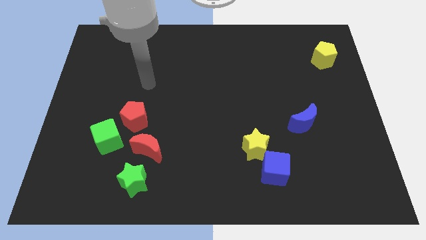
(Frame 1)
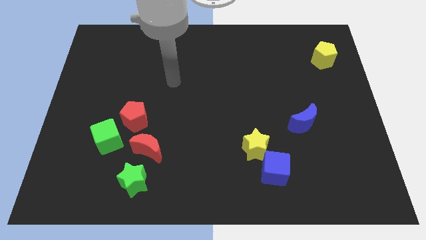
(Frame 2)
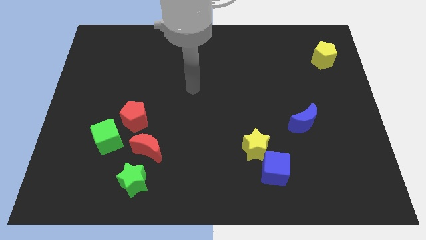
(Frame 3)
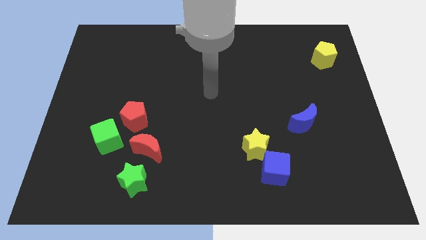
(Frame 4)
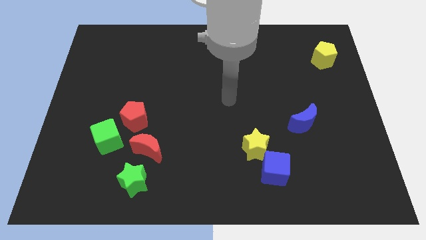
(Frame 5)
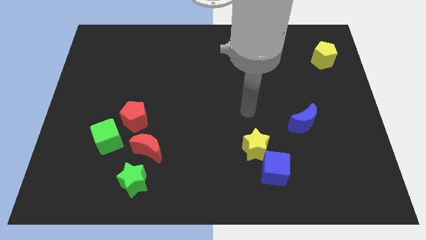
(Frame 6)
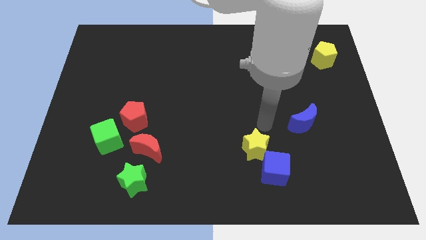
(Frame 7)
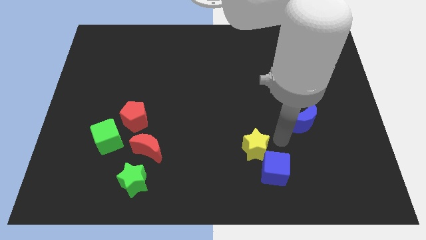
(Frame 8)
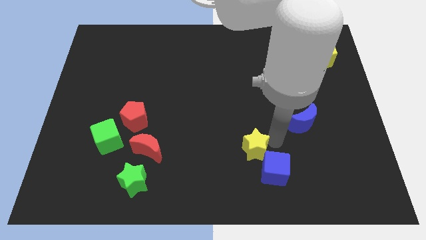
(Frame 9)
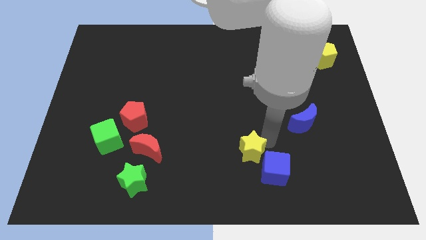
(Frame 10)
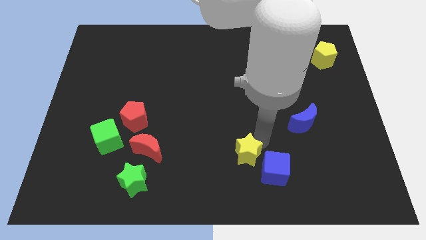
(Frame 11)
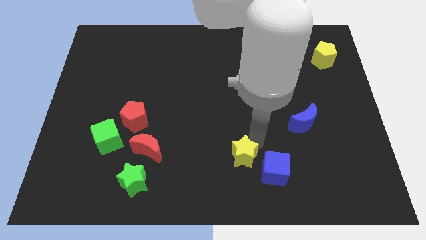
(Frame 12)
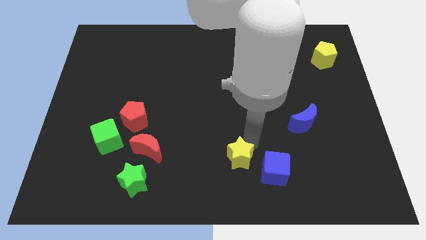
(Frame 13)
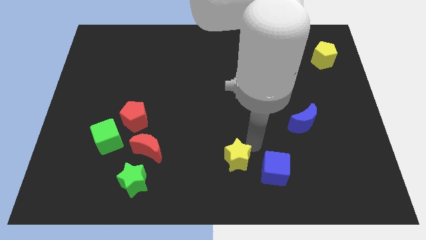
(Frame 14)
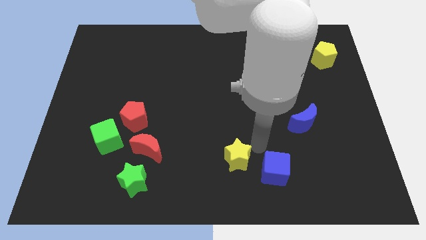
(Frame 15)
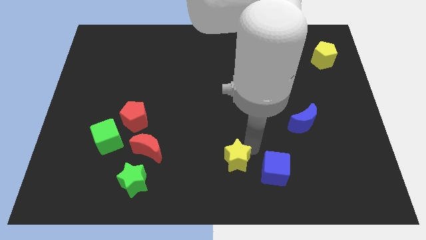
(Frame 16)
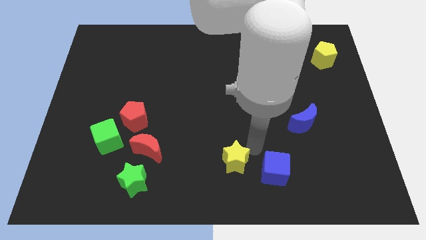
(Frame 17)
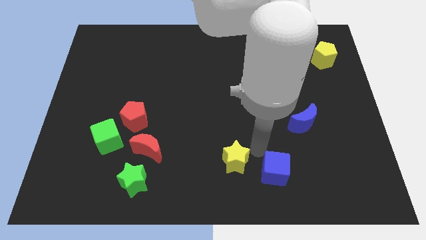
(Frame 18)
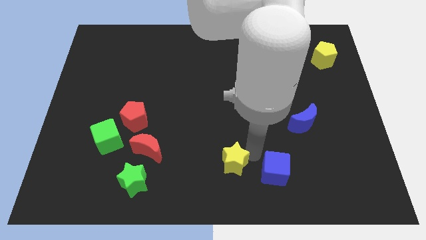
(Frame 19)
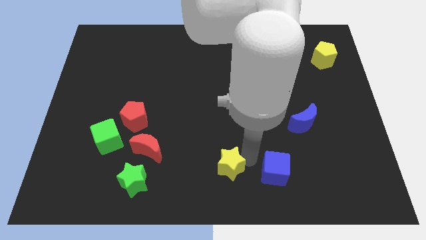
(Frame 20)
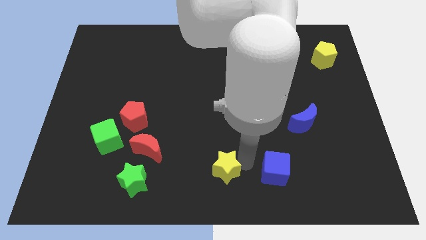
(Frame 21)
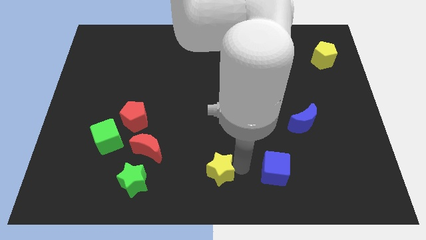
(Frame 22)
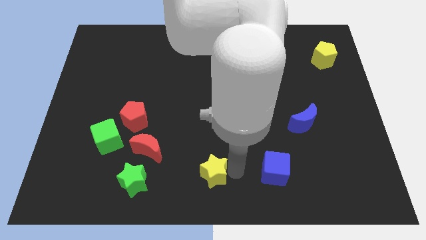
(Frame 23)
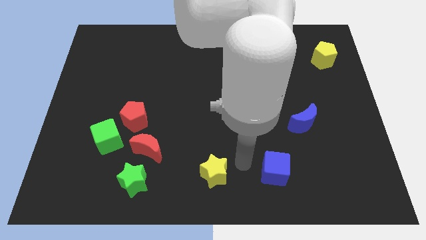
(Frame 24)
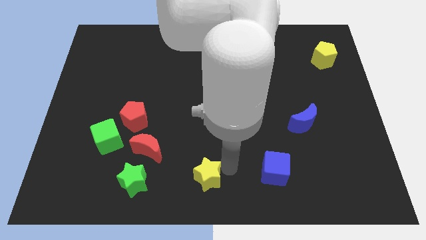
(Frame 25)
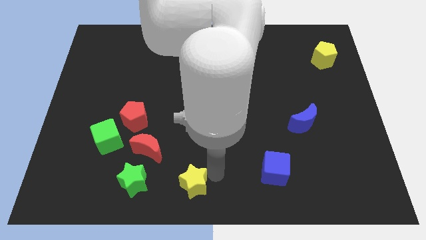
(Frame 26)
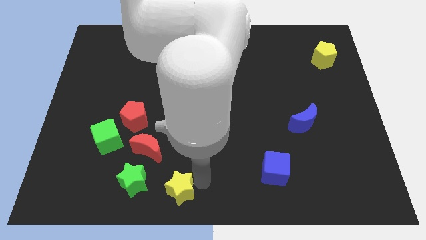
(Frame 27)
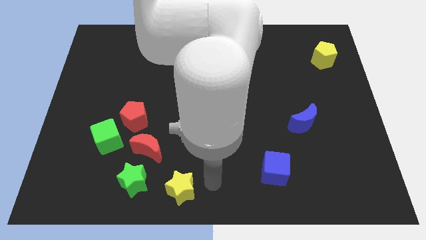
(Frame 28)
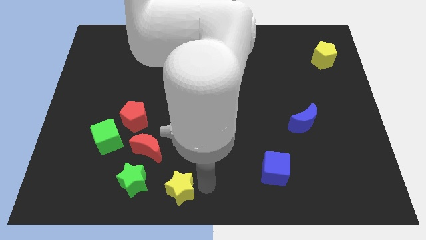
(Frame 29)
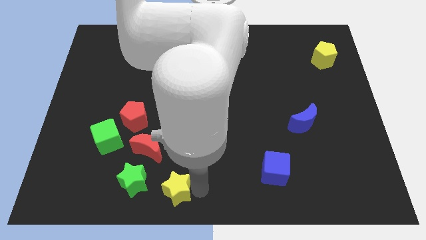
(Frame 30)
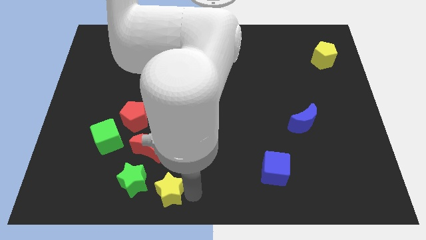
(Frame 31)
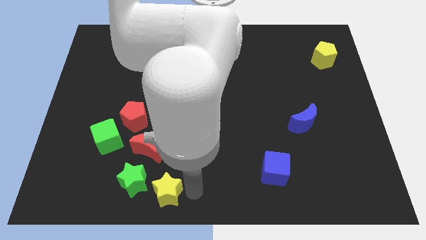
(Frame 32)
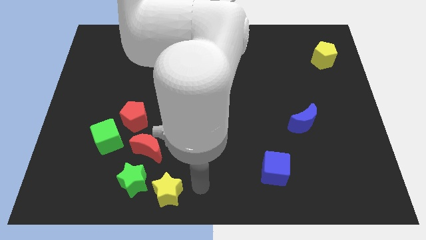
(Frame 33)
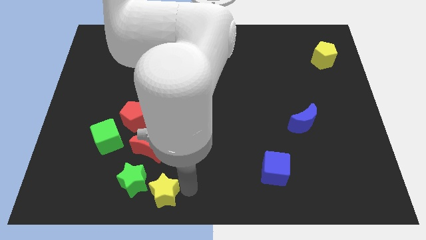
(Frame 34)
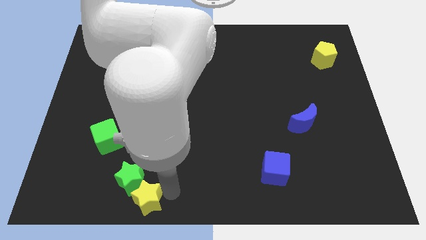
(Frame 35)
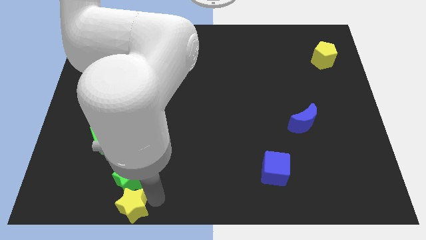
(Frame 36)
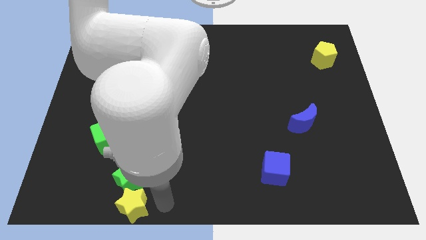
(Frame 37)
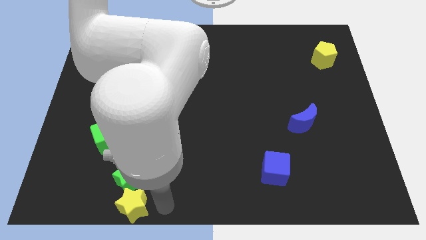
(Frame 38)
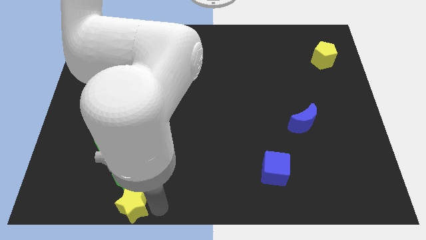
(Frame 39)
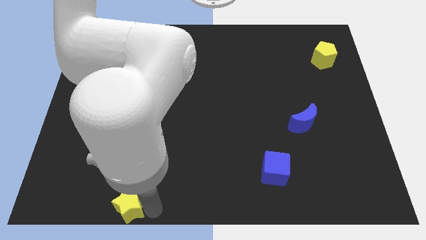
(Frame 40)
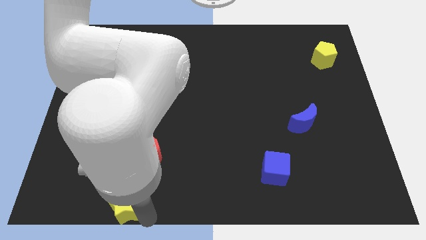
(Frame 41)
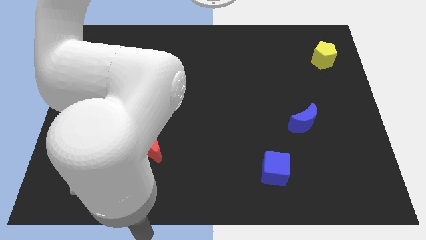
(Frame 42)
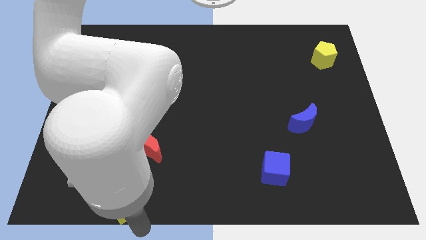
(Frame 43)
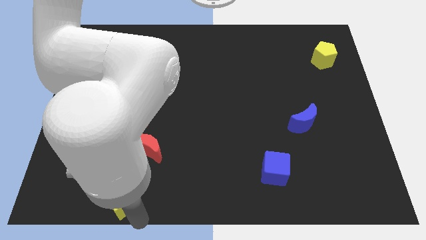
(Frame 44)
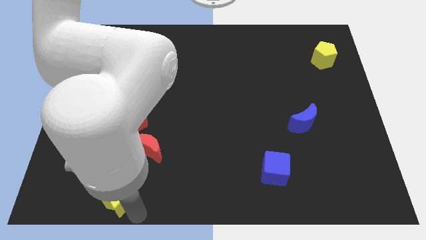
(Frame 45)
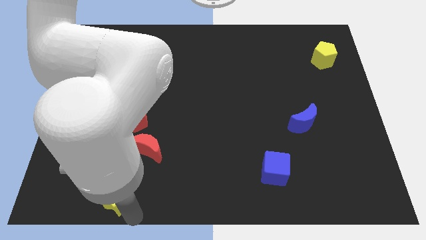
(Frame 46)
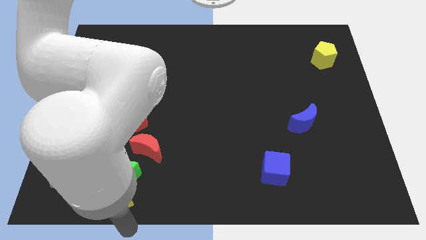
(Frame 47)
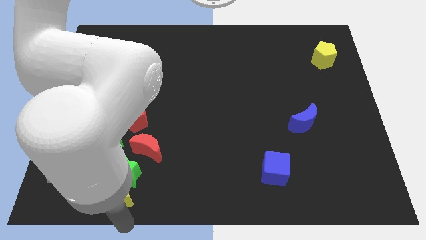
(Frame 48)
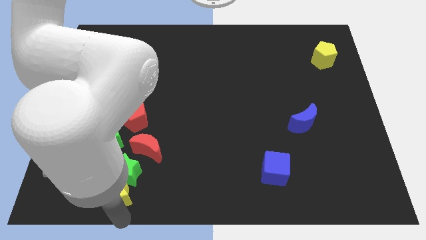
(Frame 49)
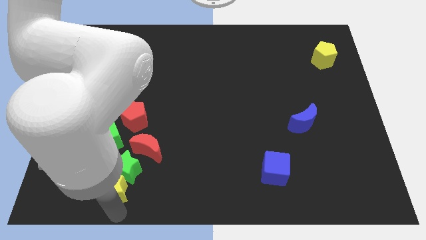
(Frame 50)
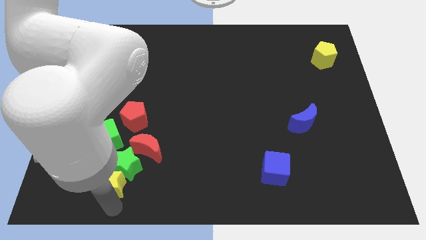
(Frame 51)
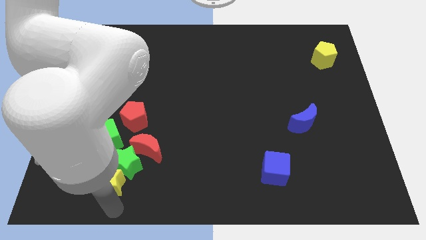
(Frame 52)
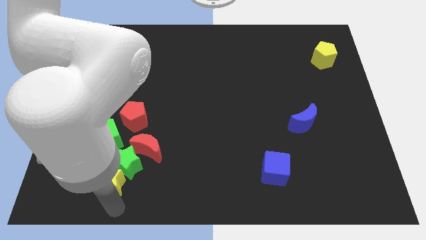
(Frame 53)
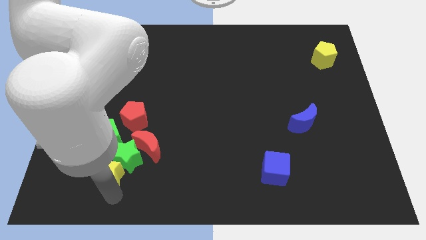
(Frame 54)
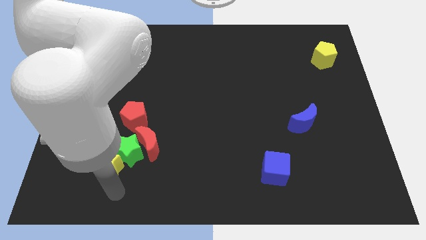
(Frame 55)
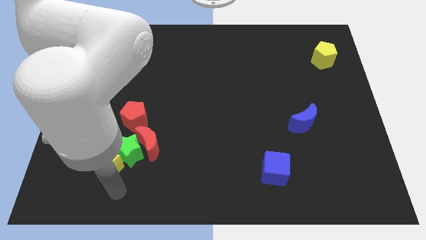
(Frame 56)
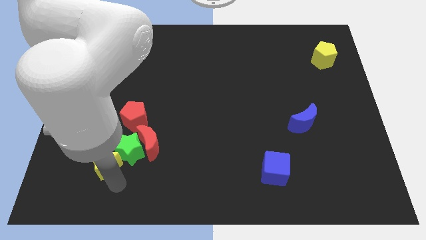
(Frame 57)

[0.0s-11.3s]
move the yellow star to the left side of the red moon

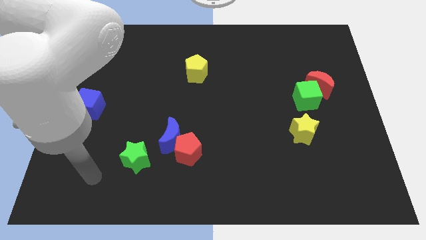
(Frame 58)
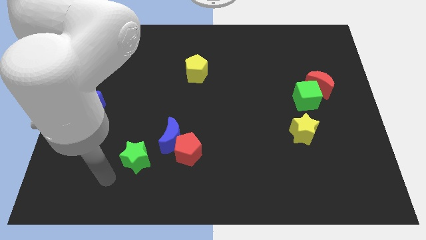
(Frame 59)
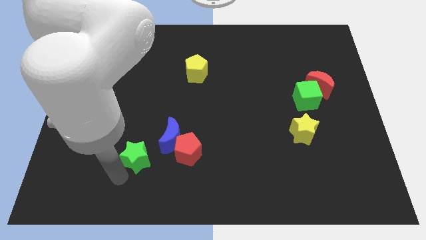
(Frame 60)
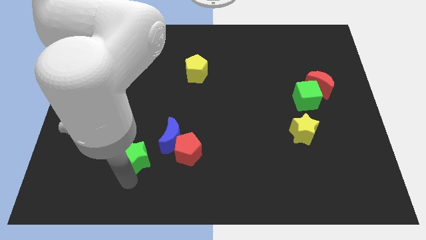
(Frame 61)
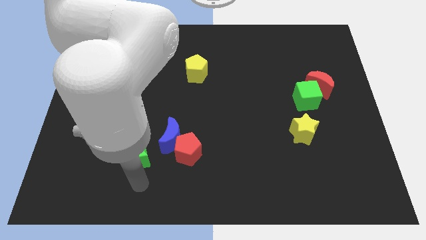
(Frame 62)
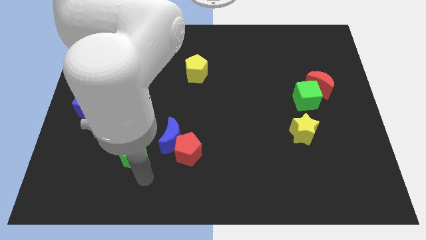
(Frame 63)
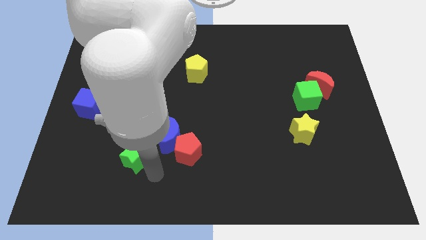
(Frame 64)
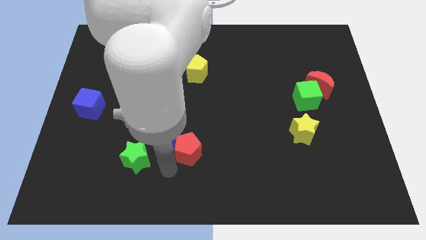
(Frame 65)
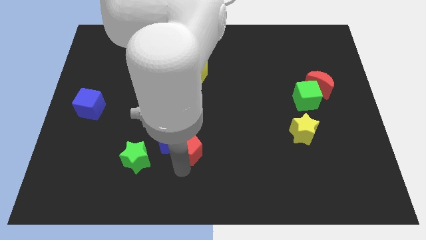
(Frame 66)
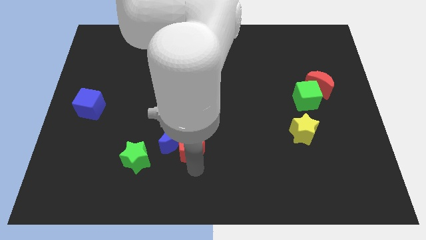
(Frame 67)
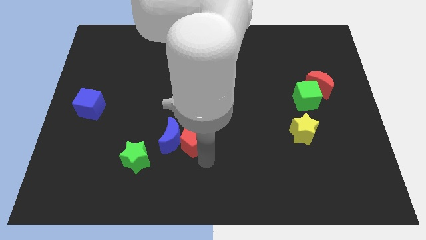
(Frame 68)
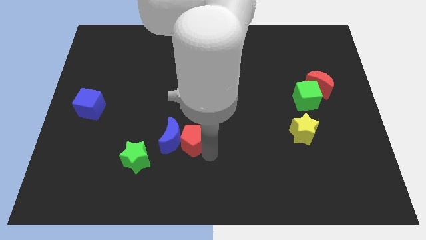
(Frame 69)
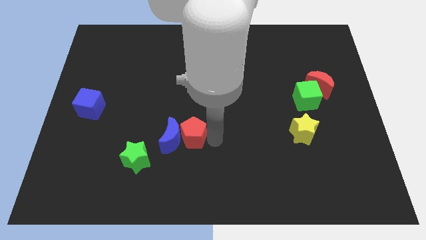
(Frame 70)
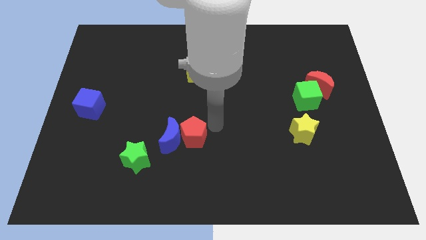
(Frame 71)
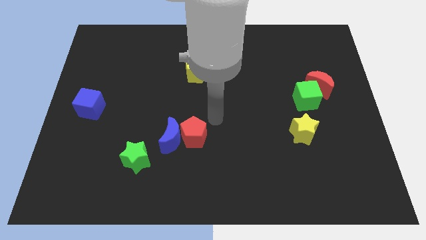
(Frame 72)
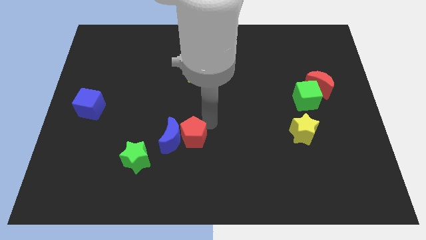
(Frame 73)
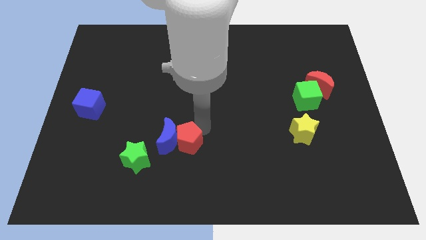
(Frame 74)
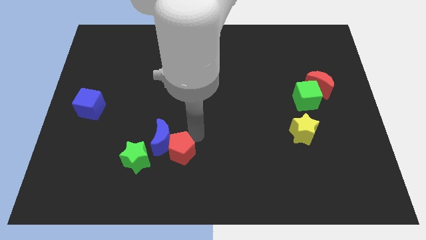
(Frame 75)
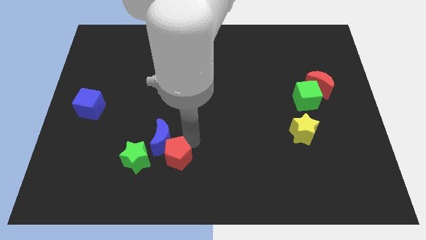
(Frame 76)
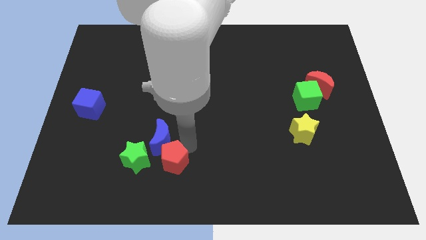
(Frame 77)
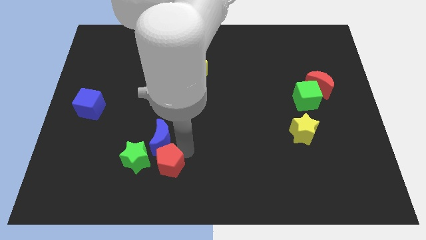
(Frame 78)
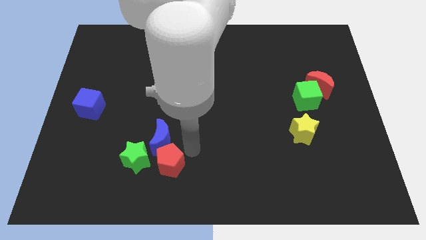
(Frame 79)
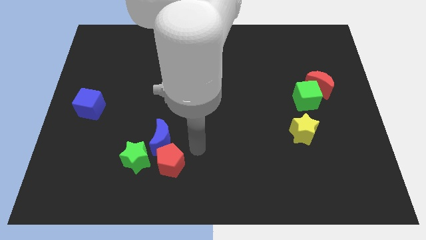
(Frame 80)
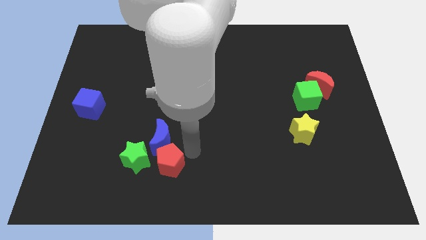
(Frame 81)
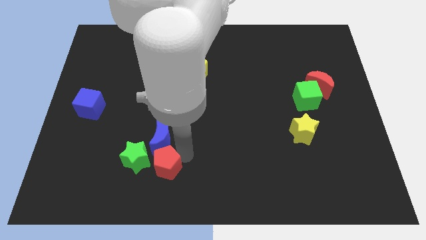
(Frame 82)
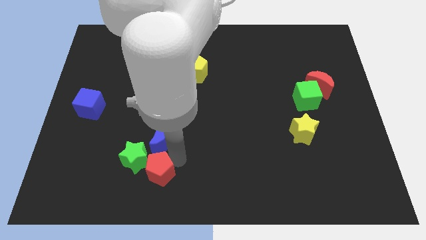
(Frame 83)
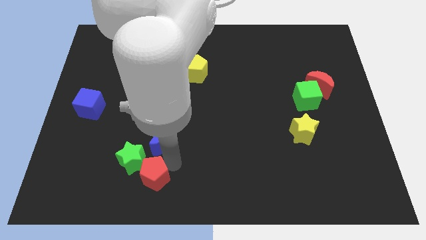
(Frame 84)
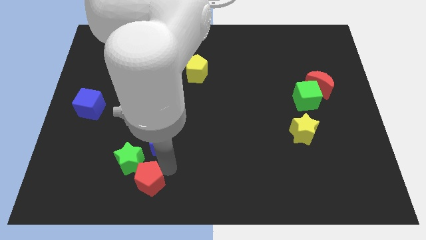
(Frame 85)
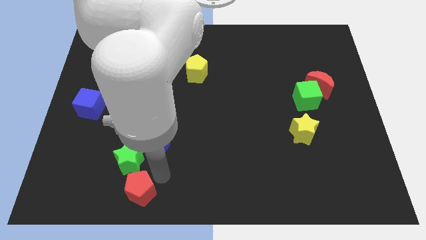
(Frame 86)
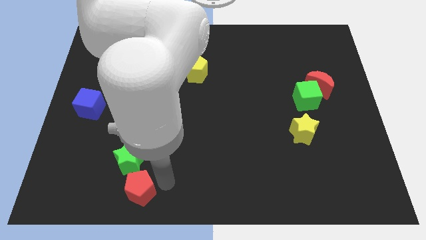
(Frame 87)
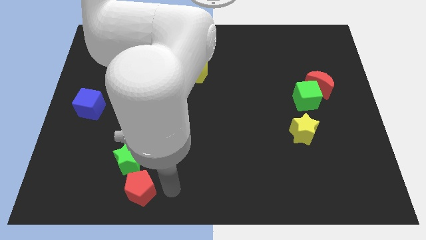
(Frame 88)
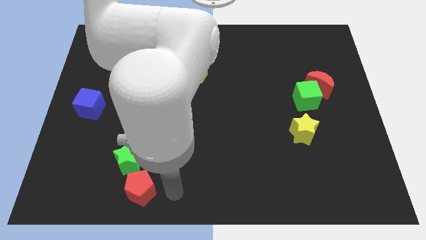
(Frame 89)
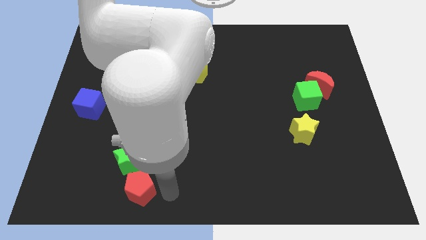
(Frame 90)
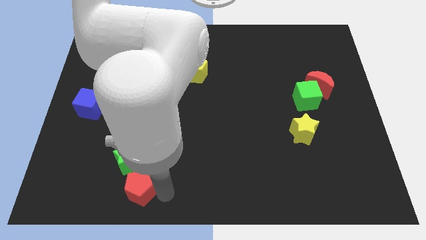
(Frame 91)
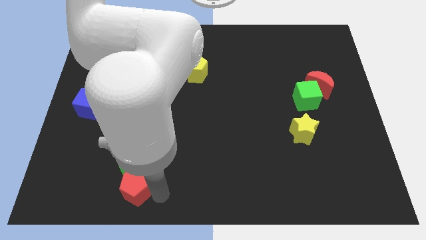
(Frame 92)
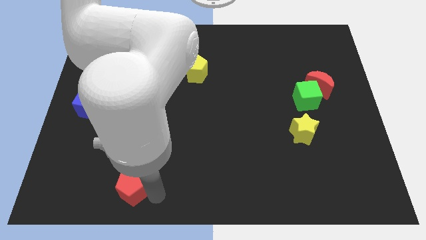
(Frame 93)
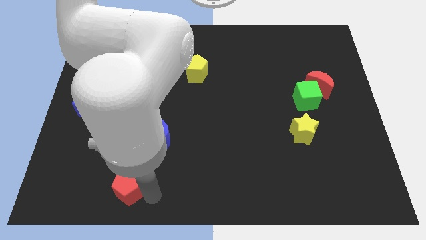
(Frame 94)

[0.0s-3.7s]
slide the red pentagon to the bottom left of the green star
